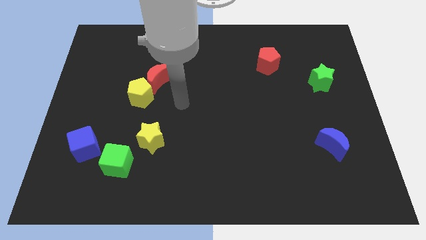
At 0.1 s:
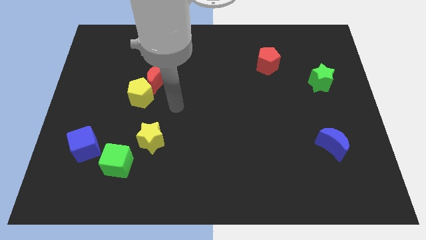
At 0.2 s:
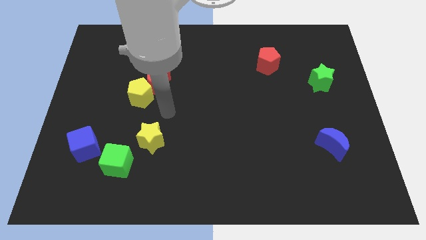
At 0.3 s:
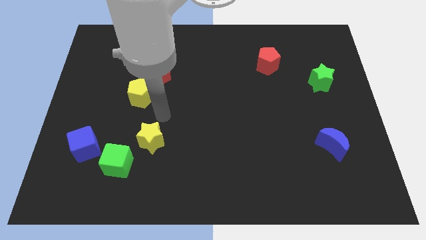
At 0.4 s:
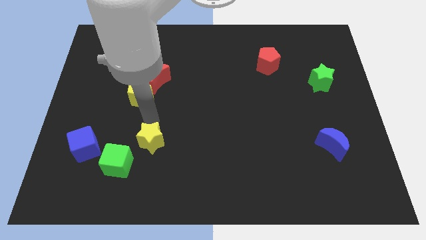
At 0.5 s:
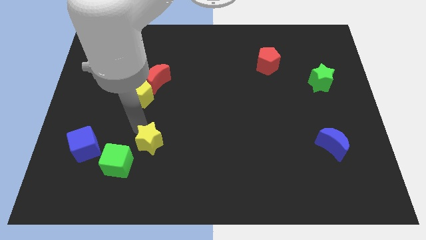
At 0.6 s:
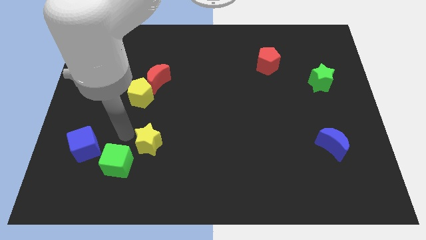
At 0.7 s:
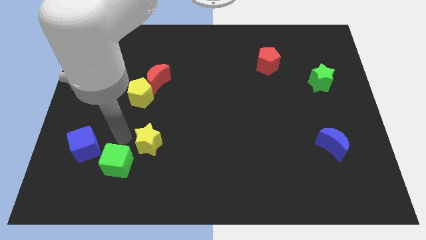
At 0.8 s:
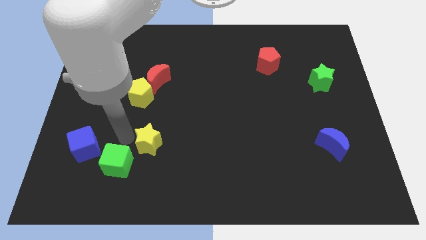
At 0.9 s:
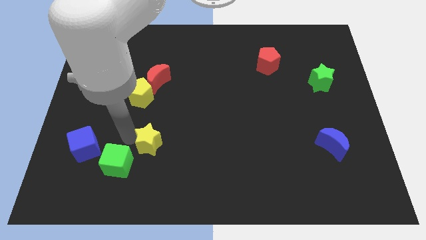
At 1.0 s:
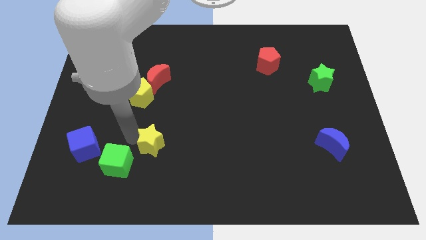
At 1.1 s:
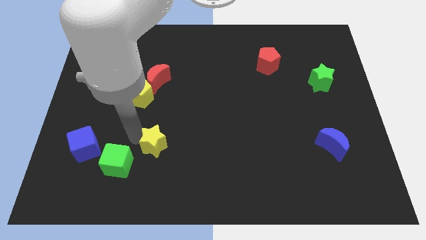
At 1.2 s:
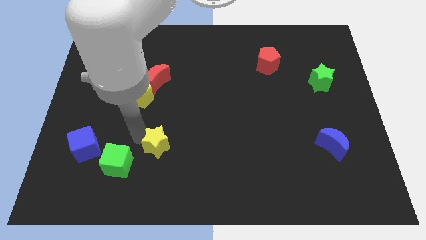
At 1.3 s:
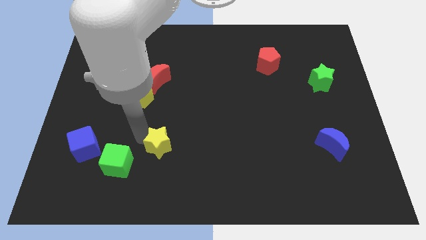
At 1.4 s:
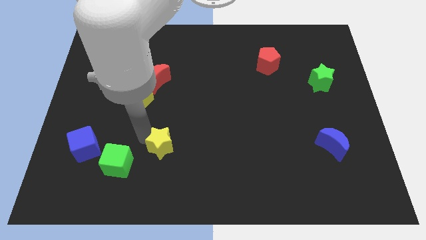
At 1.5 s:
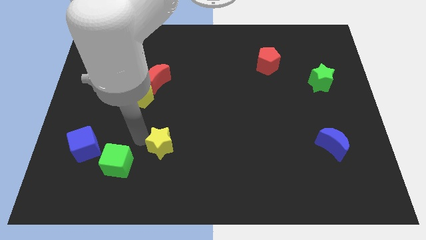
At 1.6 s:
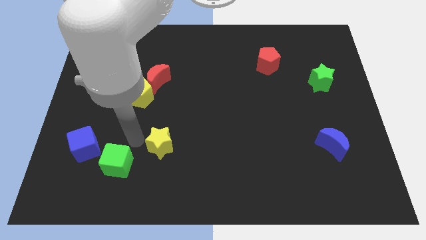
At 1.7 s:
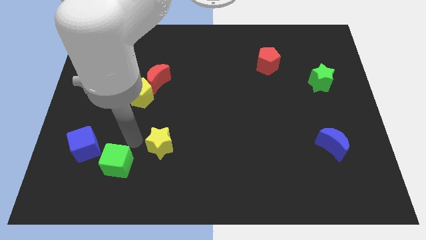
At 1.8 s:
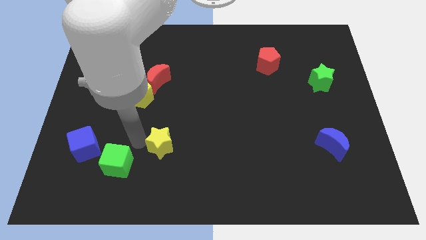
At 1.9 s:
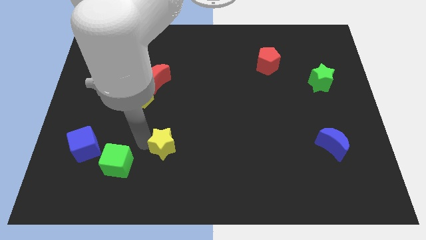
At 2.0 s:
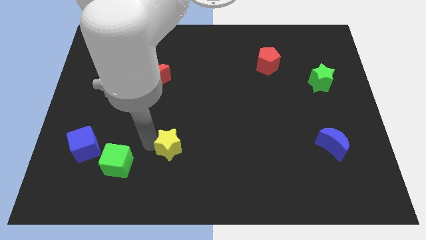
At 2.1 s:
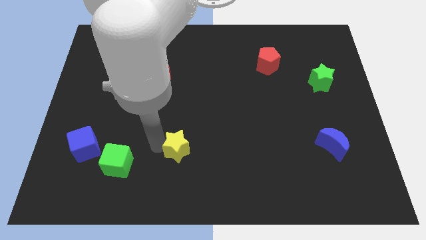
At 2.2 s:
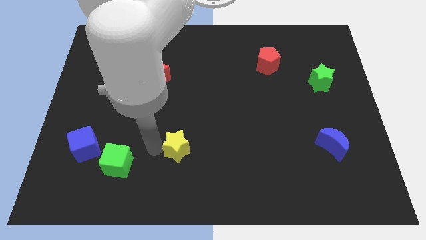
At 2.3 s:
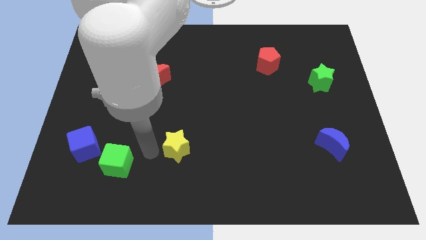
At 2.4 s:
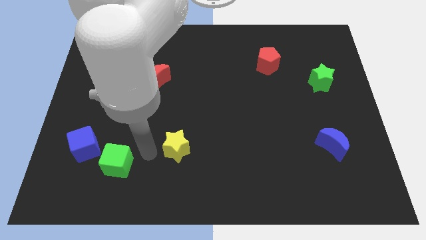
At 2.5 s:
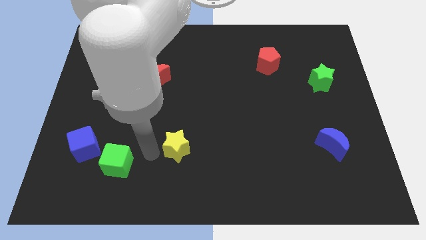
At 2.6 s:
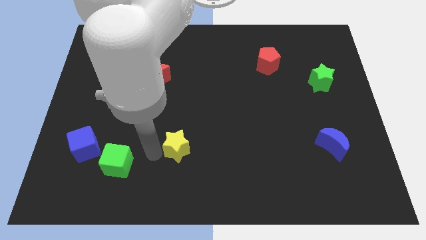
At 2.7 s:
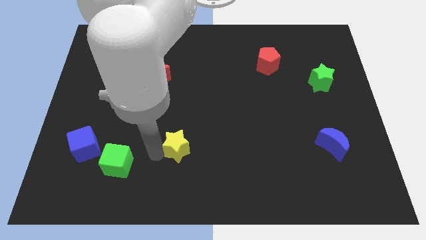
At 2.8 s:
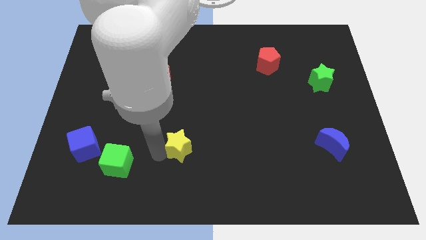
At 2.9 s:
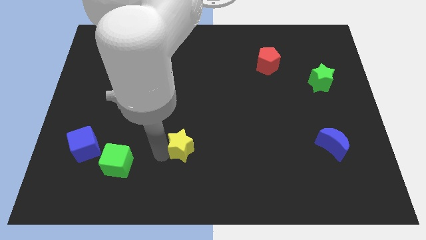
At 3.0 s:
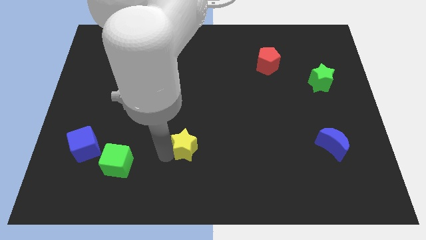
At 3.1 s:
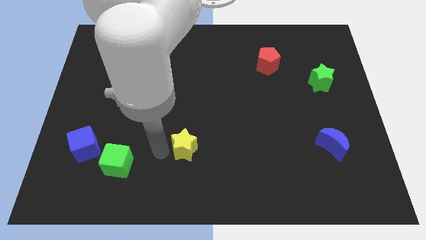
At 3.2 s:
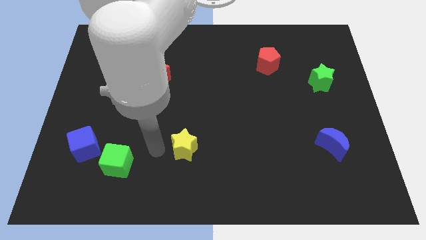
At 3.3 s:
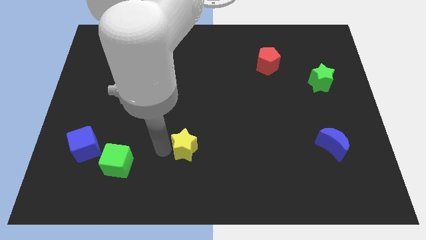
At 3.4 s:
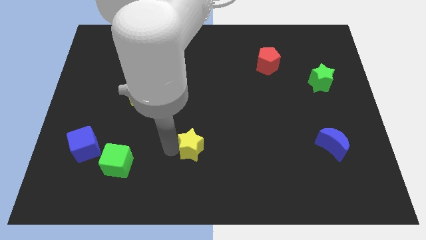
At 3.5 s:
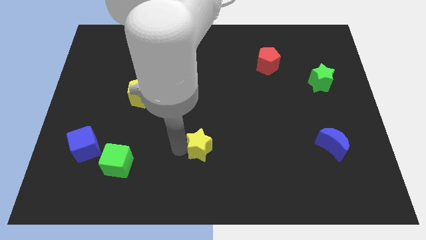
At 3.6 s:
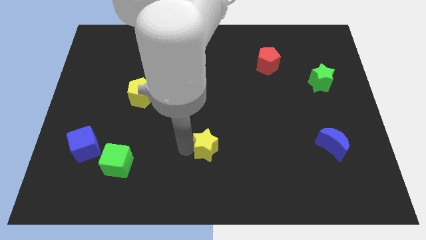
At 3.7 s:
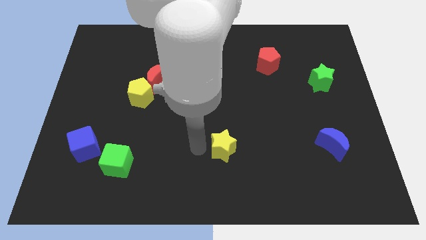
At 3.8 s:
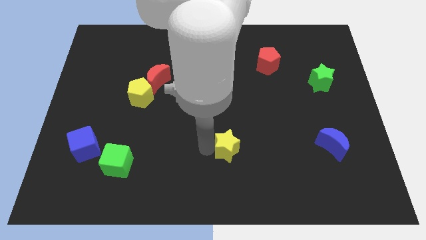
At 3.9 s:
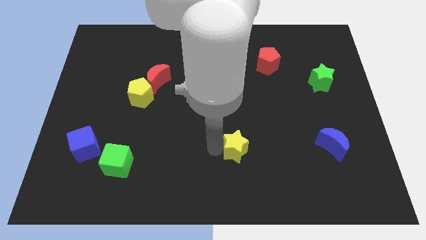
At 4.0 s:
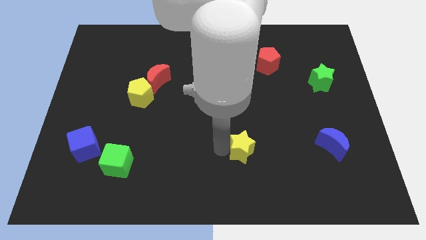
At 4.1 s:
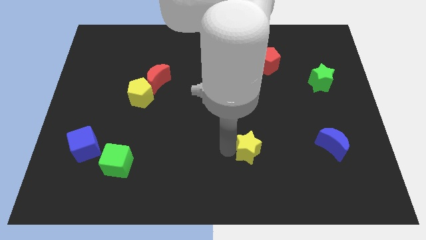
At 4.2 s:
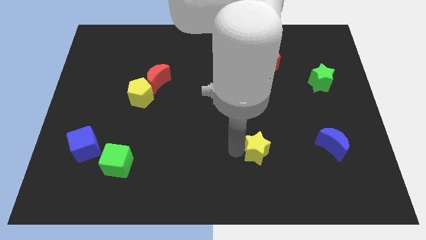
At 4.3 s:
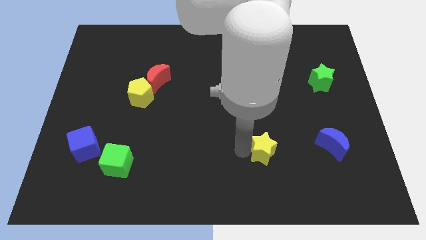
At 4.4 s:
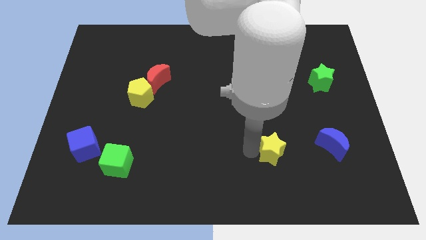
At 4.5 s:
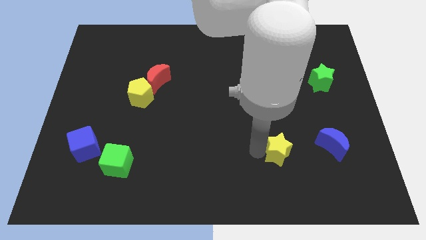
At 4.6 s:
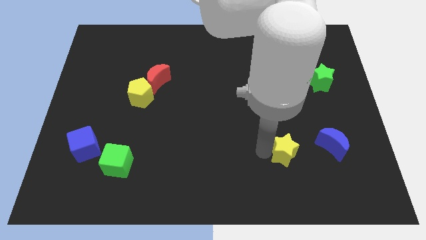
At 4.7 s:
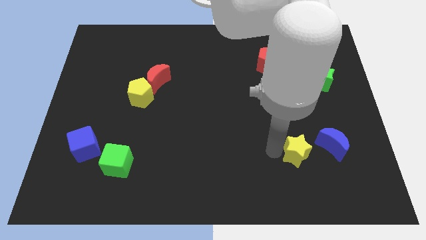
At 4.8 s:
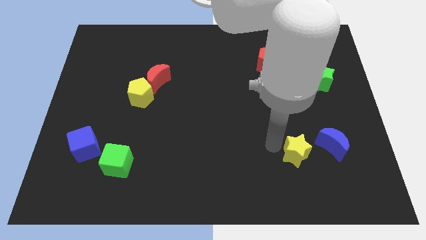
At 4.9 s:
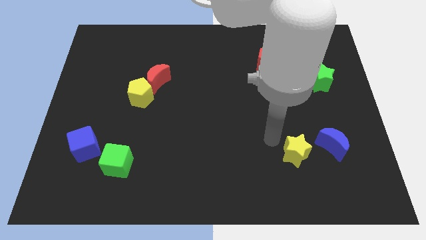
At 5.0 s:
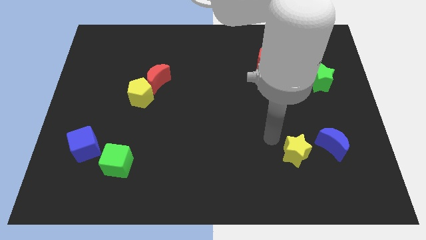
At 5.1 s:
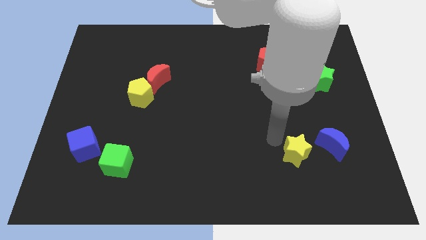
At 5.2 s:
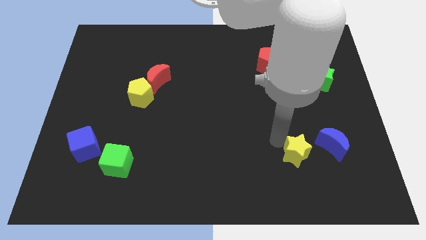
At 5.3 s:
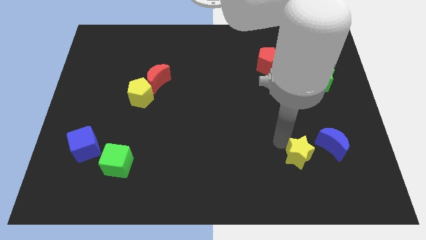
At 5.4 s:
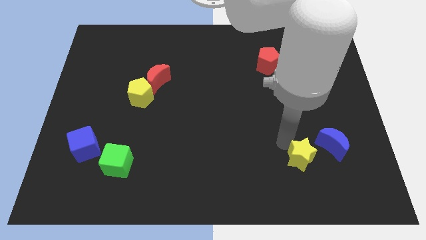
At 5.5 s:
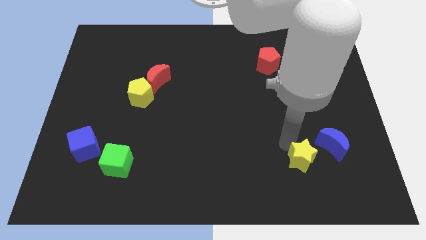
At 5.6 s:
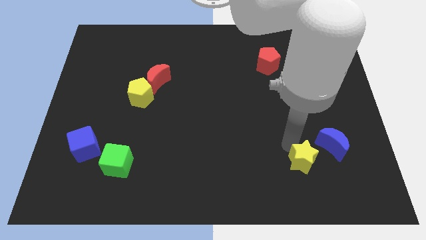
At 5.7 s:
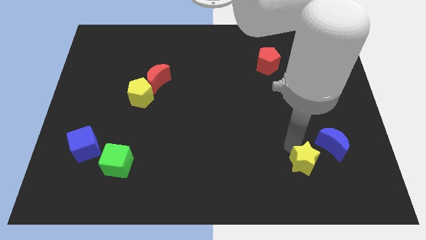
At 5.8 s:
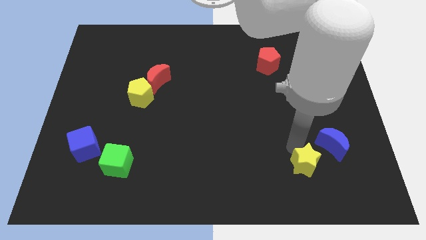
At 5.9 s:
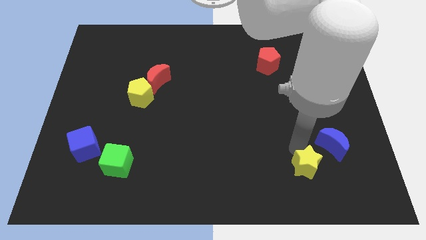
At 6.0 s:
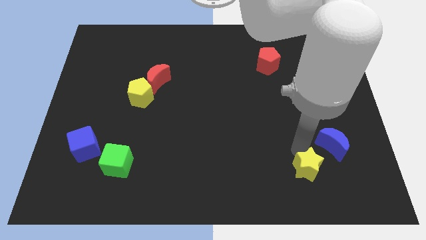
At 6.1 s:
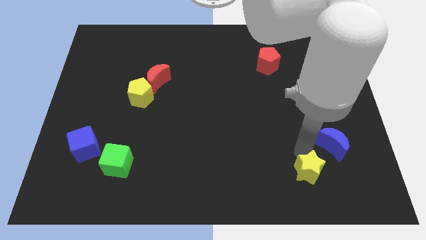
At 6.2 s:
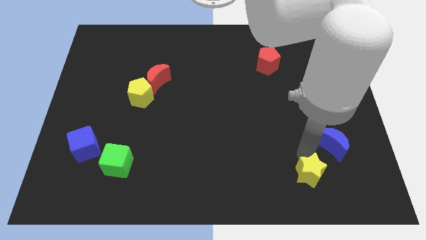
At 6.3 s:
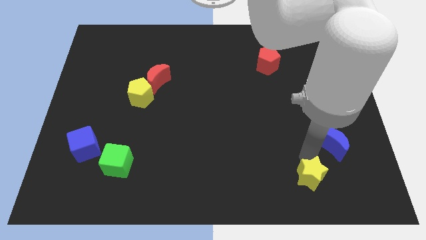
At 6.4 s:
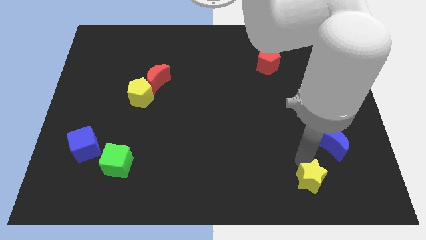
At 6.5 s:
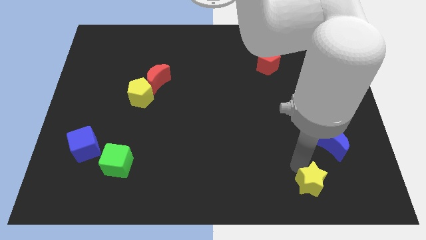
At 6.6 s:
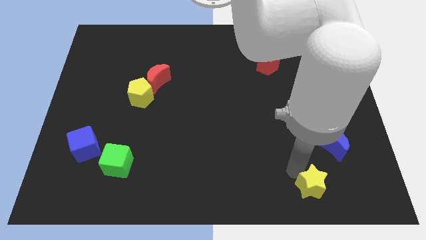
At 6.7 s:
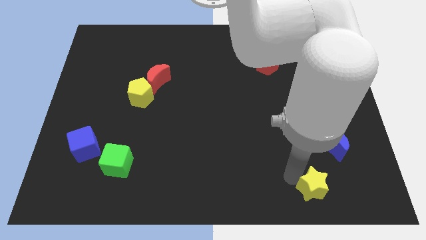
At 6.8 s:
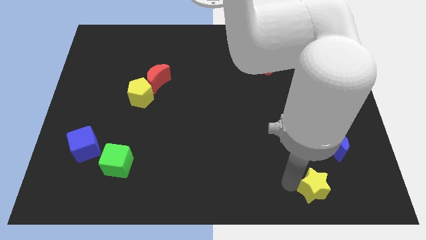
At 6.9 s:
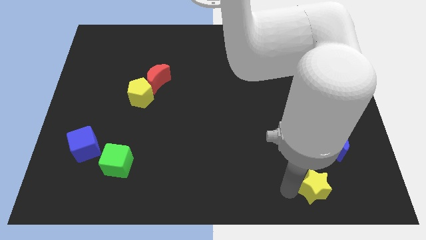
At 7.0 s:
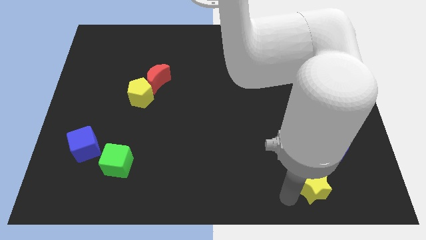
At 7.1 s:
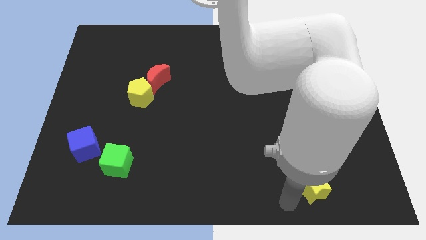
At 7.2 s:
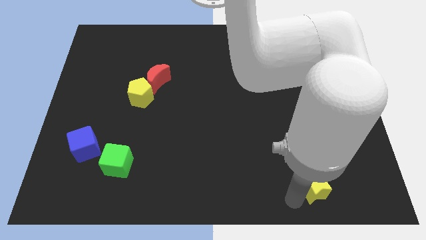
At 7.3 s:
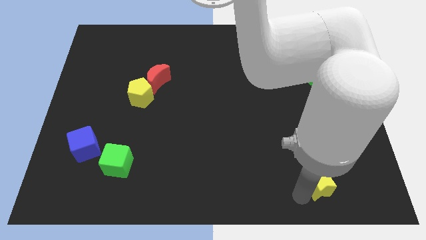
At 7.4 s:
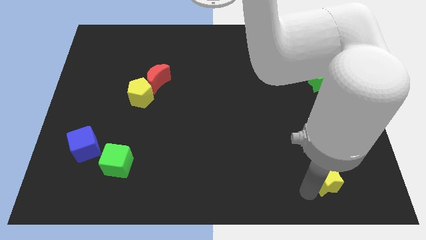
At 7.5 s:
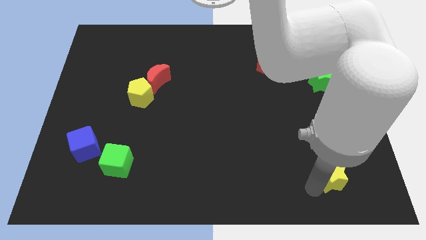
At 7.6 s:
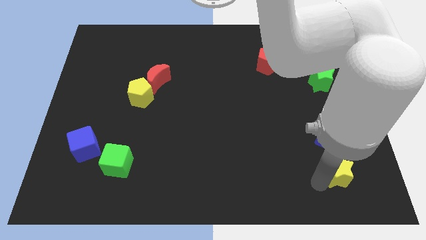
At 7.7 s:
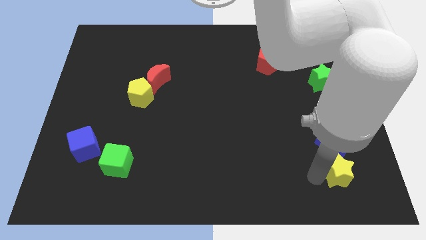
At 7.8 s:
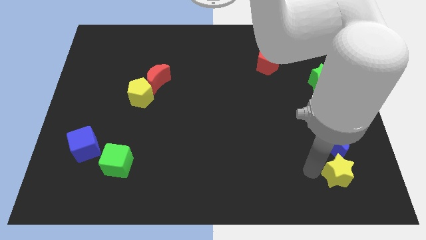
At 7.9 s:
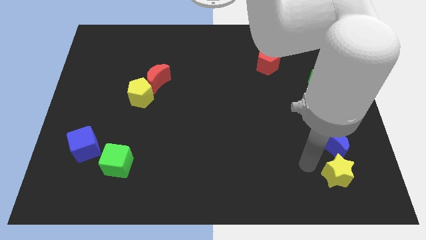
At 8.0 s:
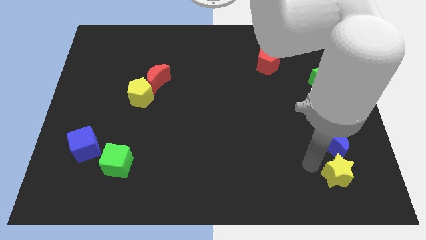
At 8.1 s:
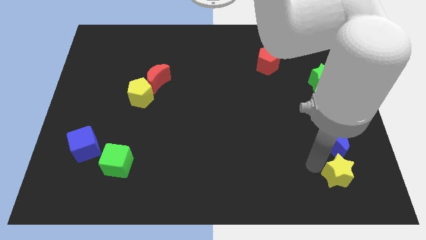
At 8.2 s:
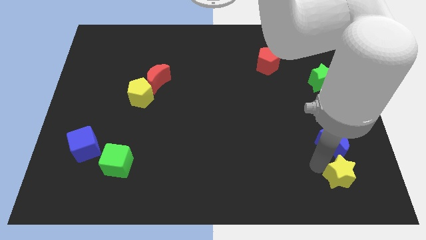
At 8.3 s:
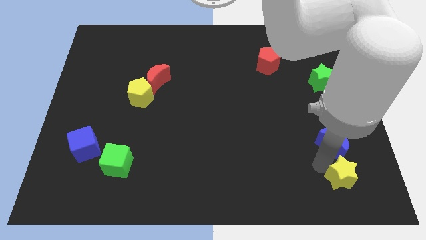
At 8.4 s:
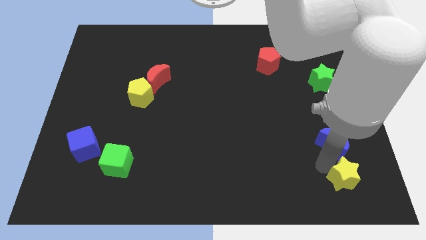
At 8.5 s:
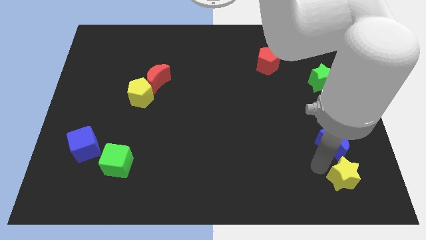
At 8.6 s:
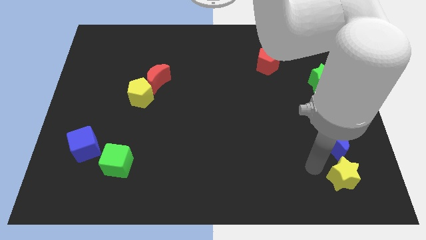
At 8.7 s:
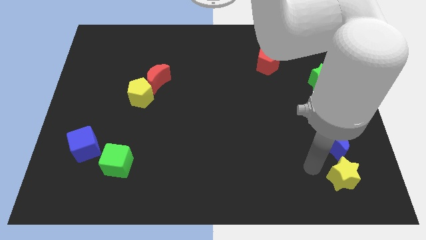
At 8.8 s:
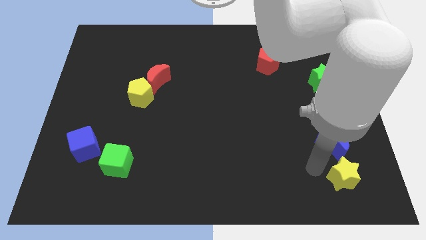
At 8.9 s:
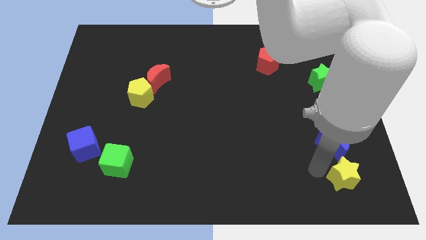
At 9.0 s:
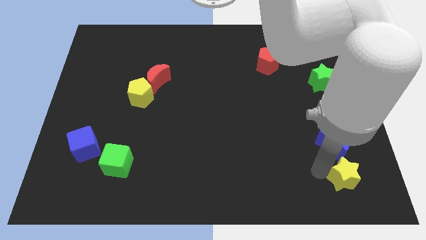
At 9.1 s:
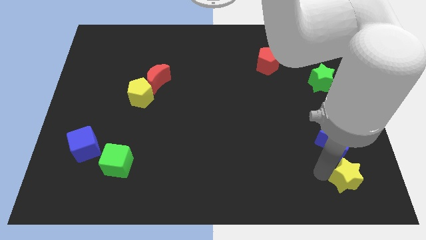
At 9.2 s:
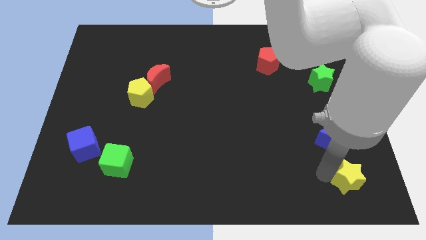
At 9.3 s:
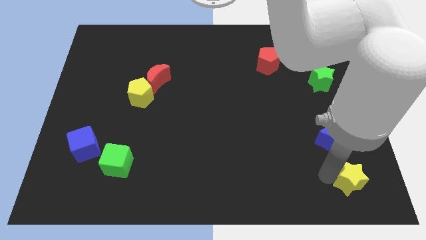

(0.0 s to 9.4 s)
move the yellow star to the bottom right
